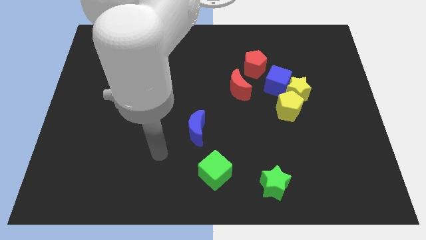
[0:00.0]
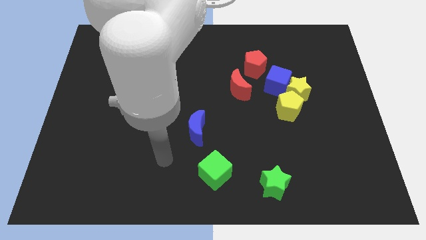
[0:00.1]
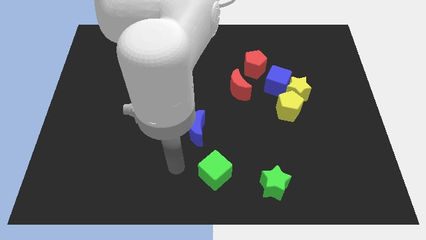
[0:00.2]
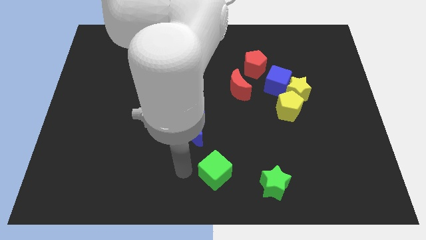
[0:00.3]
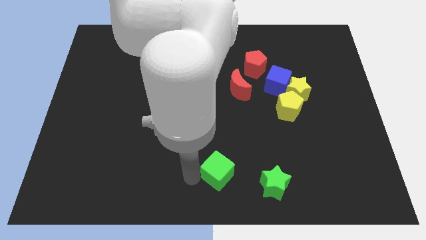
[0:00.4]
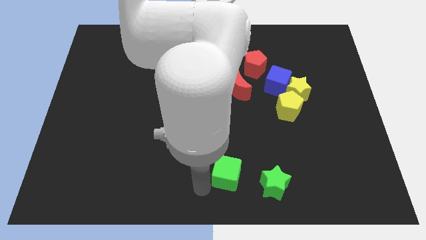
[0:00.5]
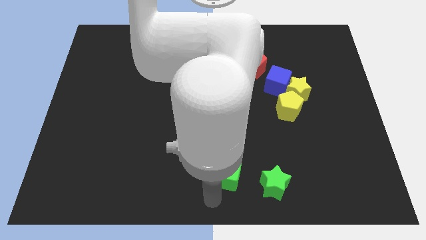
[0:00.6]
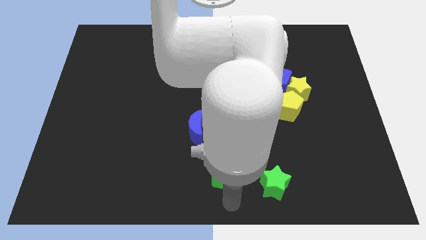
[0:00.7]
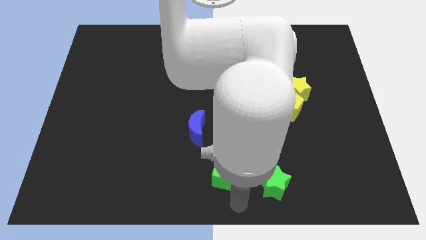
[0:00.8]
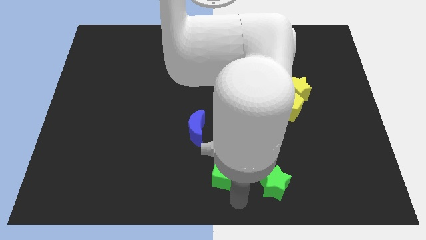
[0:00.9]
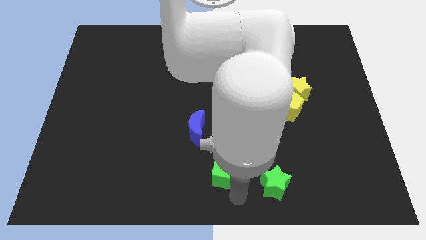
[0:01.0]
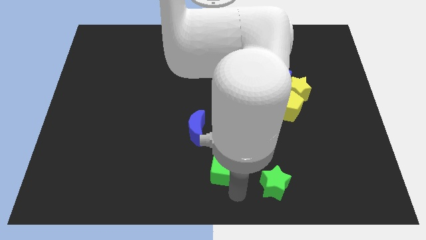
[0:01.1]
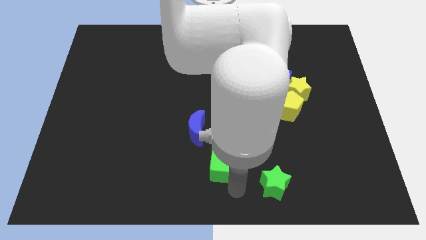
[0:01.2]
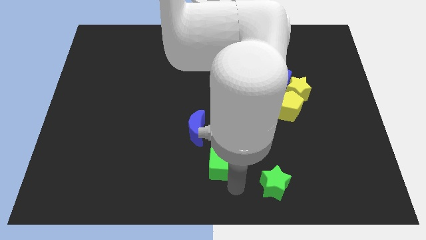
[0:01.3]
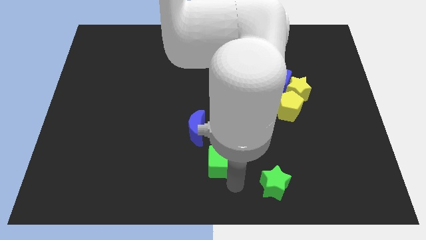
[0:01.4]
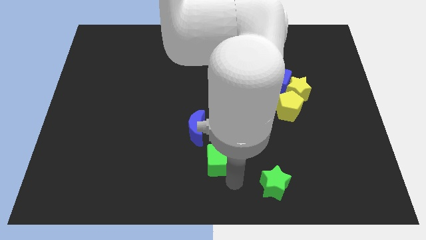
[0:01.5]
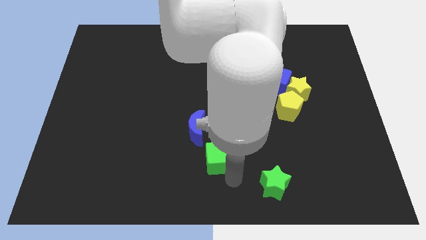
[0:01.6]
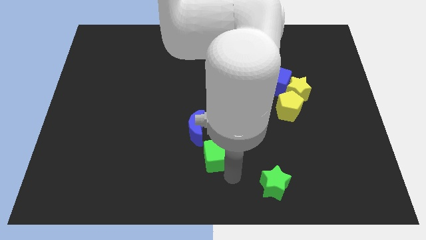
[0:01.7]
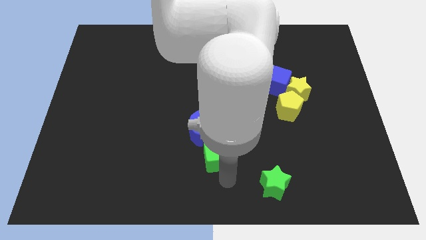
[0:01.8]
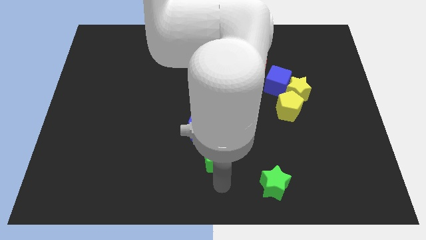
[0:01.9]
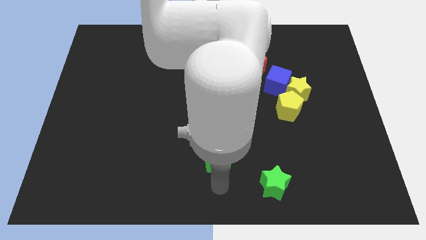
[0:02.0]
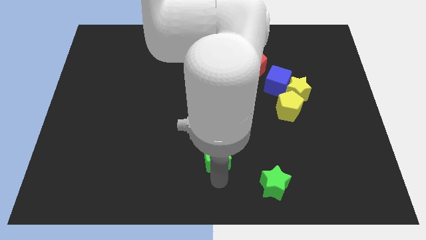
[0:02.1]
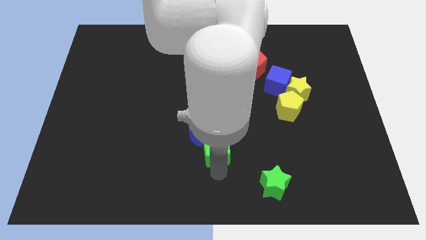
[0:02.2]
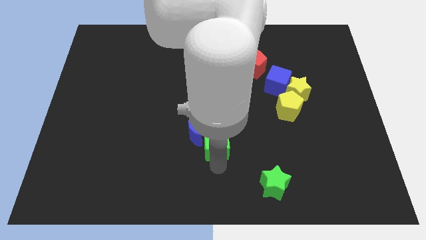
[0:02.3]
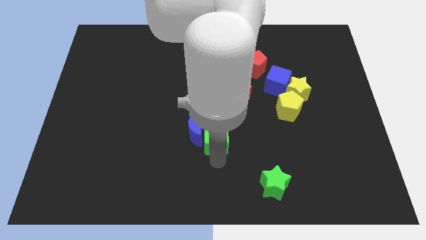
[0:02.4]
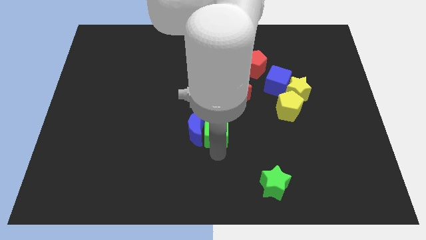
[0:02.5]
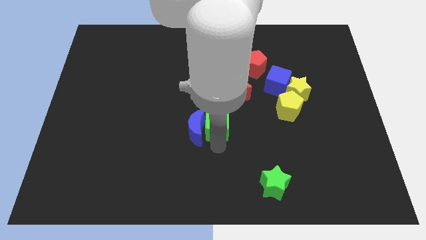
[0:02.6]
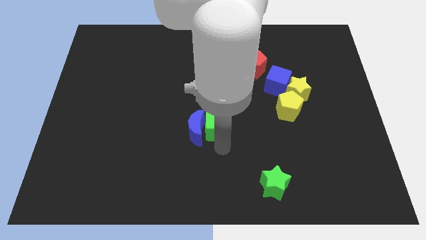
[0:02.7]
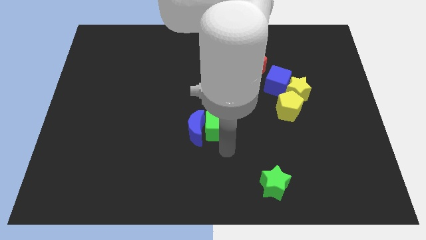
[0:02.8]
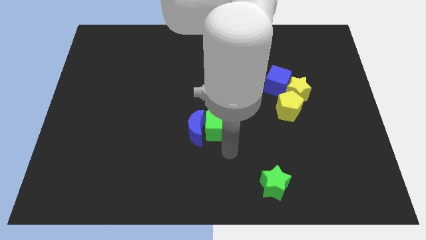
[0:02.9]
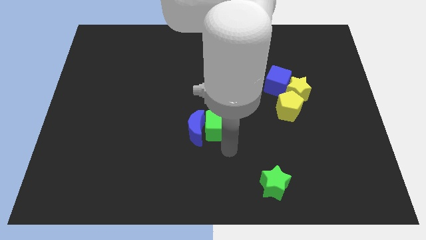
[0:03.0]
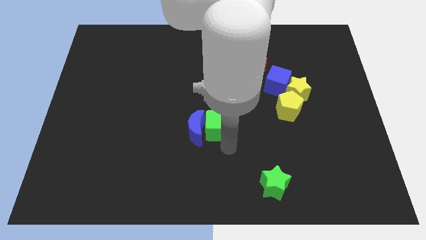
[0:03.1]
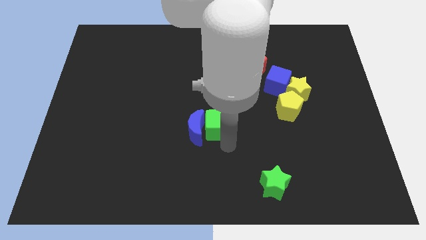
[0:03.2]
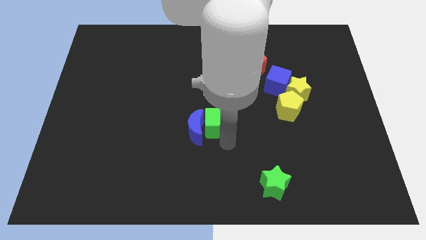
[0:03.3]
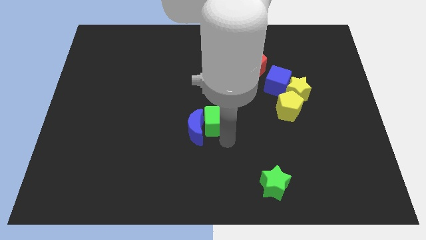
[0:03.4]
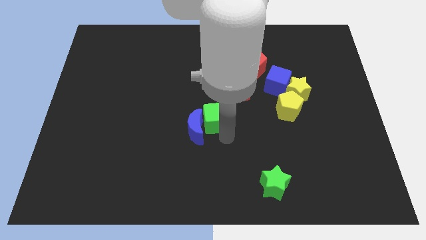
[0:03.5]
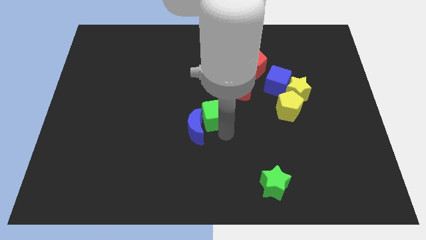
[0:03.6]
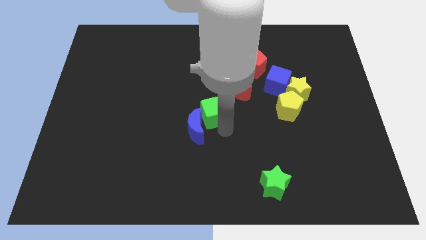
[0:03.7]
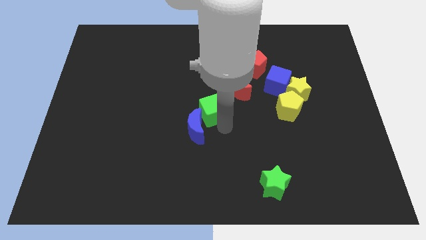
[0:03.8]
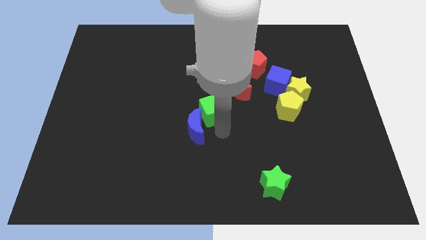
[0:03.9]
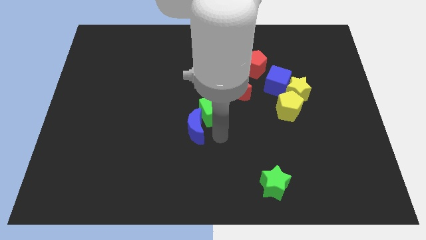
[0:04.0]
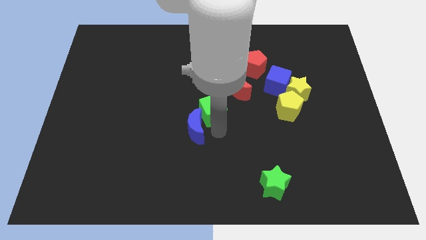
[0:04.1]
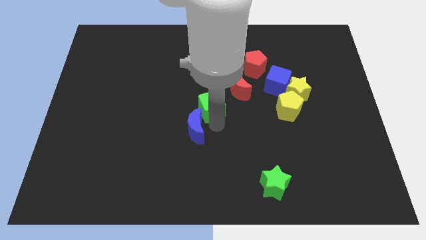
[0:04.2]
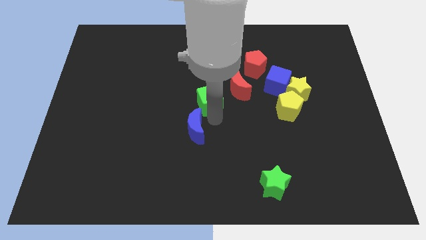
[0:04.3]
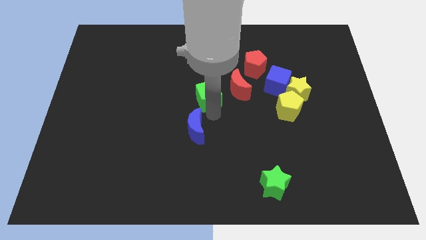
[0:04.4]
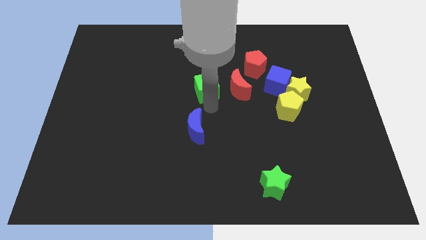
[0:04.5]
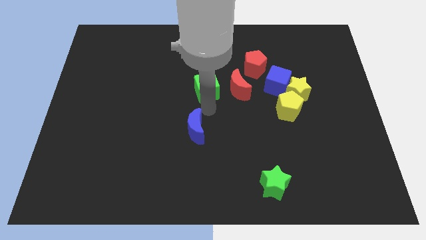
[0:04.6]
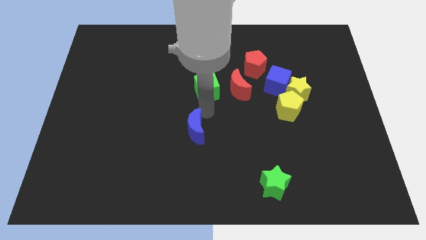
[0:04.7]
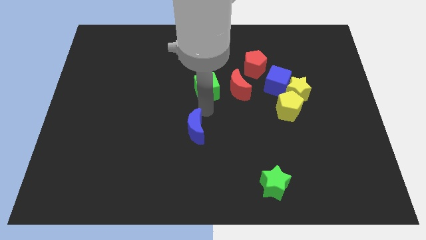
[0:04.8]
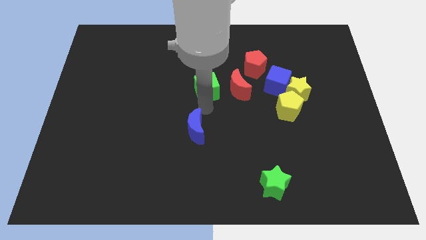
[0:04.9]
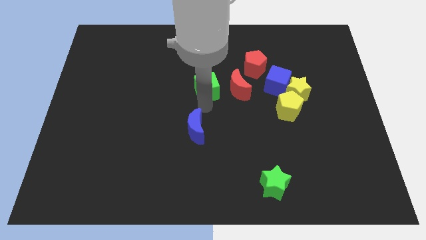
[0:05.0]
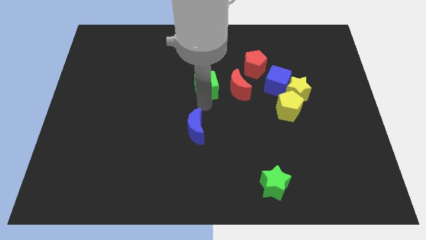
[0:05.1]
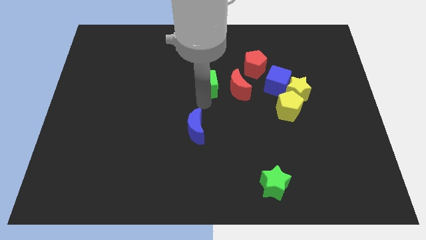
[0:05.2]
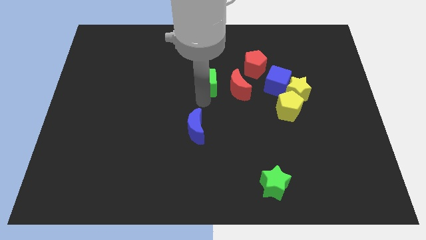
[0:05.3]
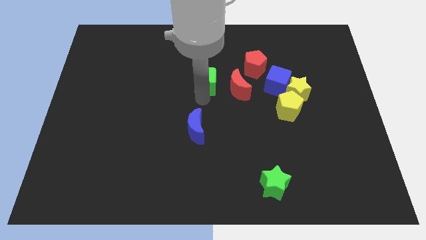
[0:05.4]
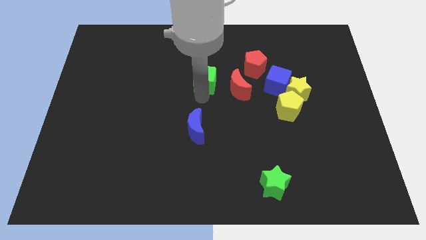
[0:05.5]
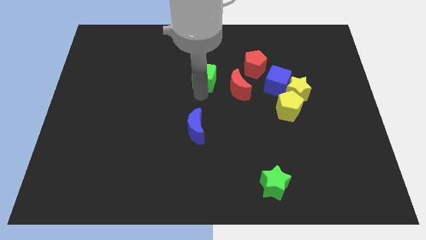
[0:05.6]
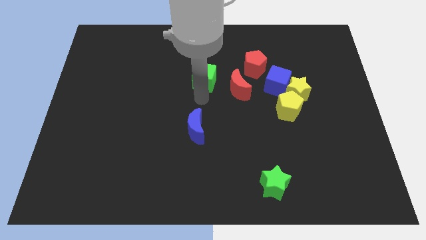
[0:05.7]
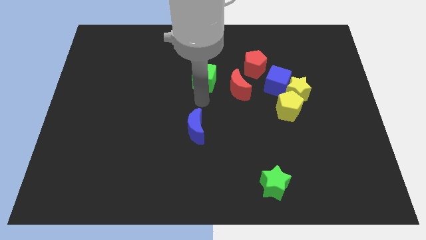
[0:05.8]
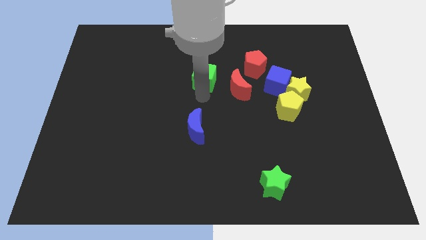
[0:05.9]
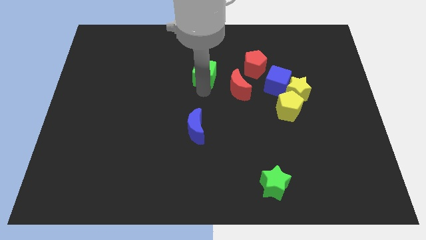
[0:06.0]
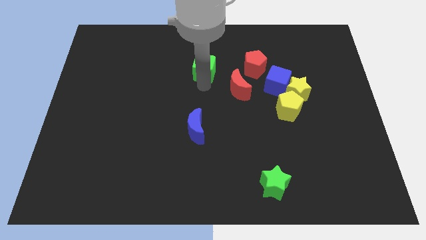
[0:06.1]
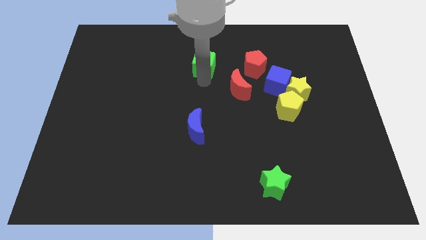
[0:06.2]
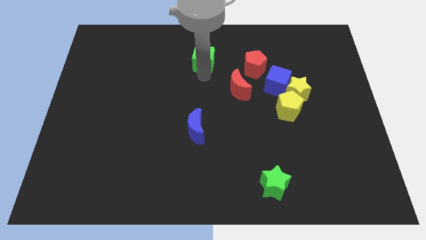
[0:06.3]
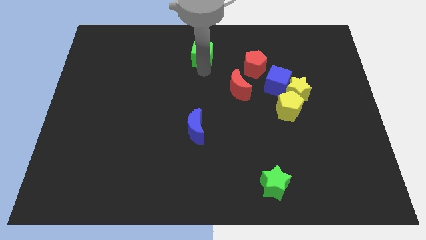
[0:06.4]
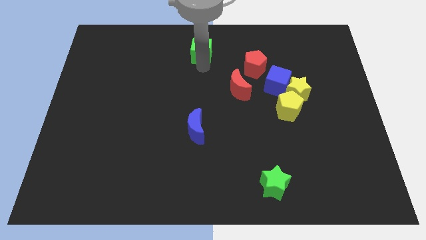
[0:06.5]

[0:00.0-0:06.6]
move the green cube to the towards your base
